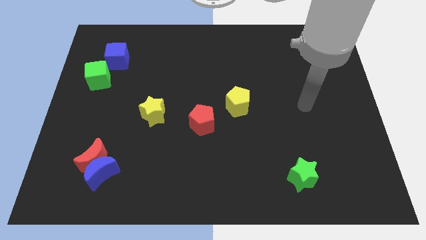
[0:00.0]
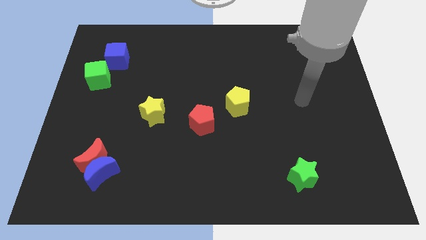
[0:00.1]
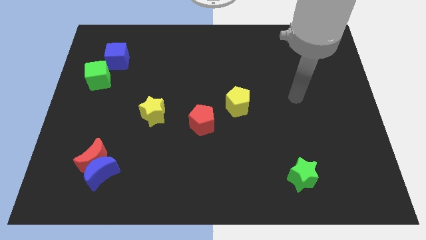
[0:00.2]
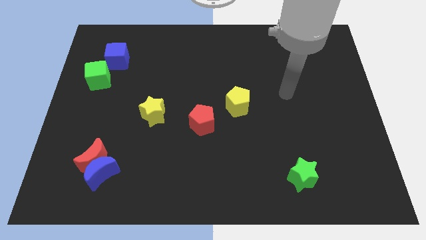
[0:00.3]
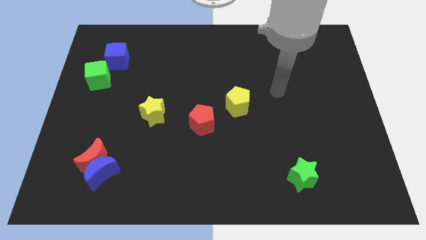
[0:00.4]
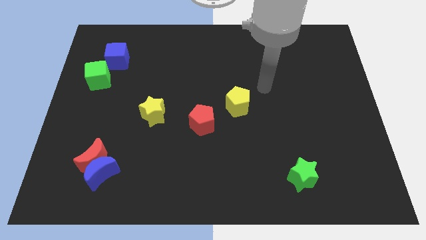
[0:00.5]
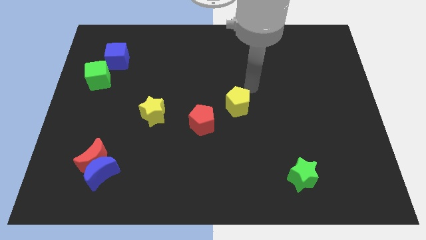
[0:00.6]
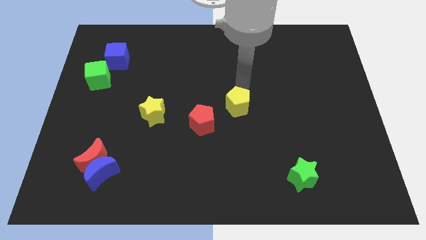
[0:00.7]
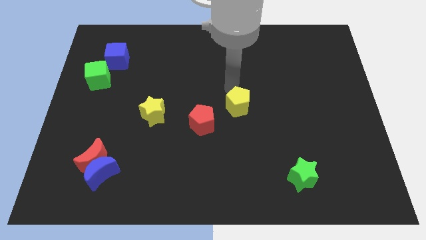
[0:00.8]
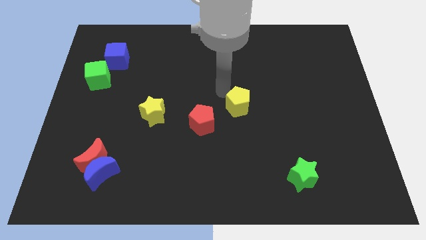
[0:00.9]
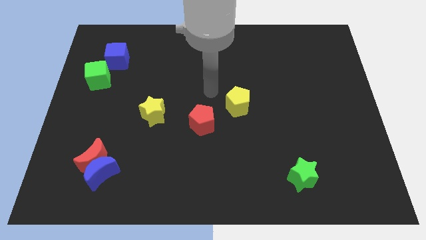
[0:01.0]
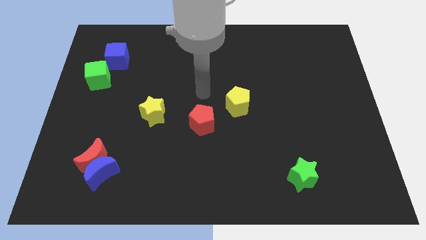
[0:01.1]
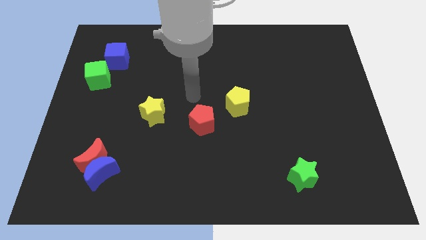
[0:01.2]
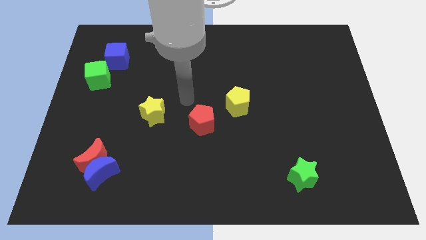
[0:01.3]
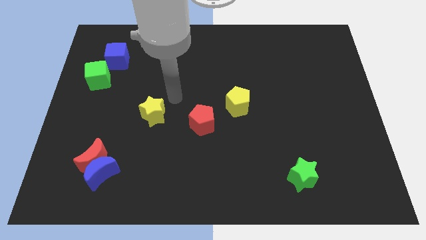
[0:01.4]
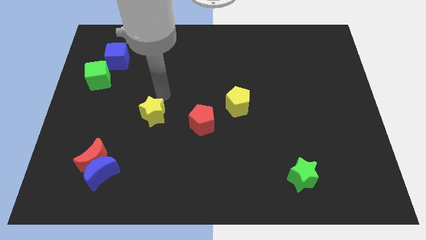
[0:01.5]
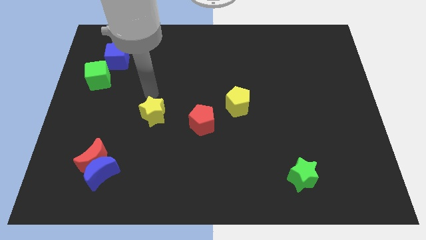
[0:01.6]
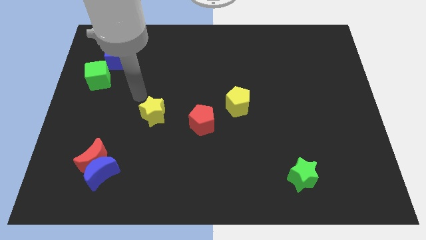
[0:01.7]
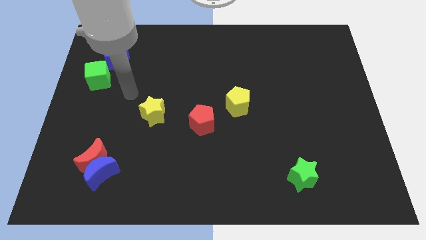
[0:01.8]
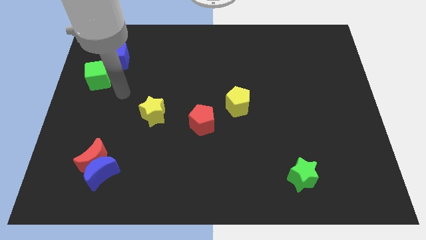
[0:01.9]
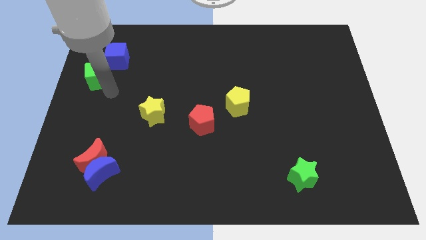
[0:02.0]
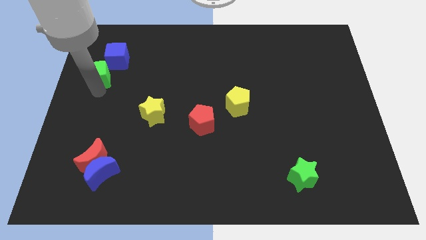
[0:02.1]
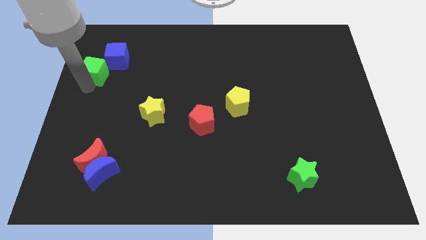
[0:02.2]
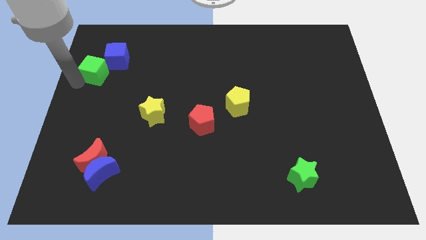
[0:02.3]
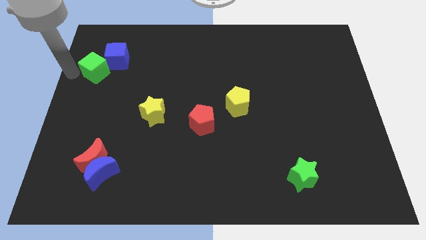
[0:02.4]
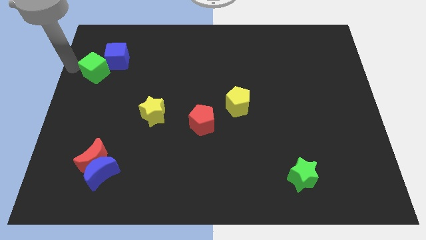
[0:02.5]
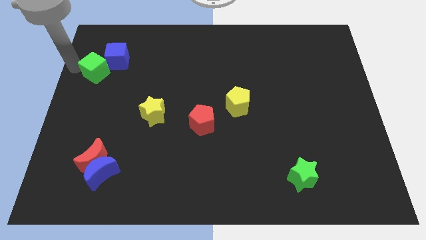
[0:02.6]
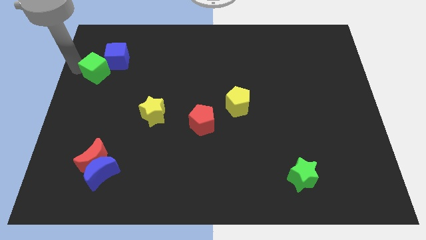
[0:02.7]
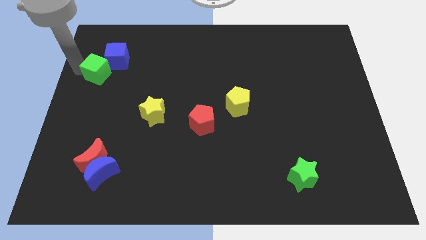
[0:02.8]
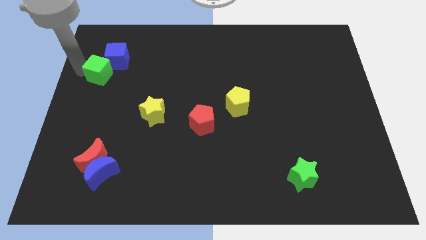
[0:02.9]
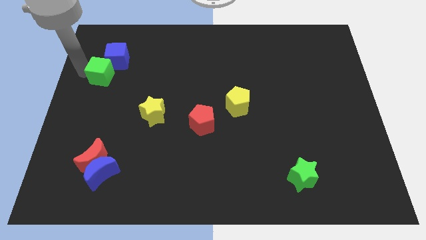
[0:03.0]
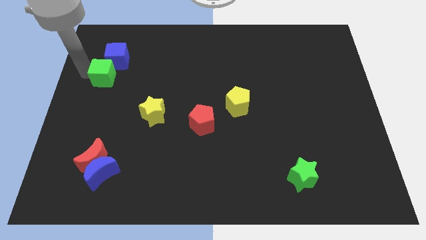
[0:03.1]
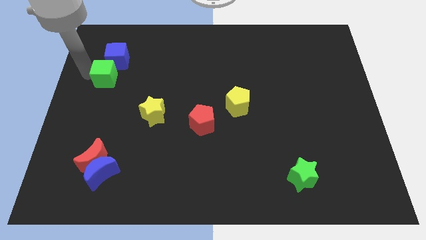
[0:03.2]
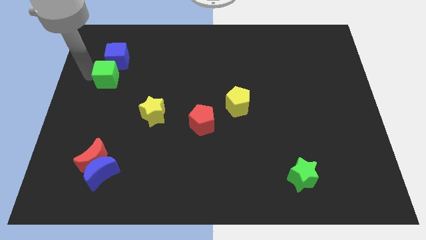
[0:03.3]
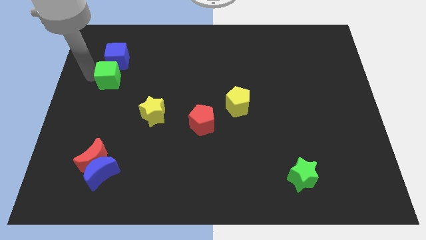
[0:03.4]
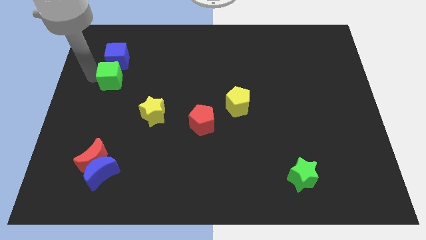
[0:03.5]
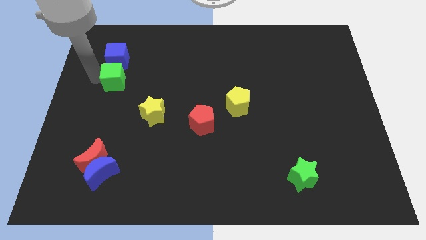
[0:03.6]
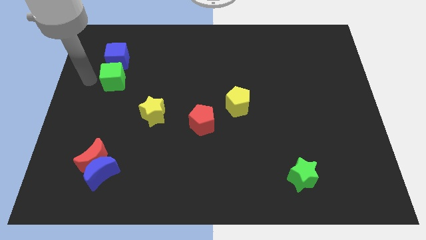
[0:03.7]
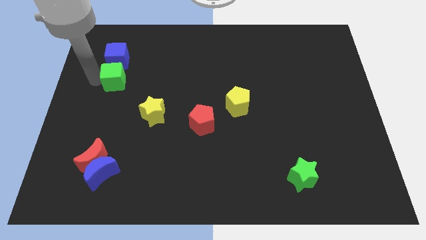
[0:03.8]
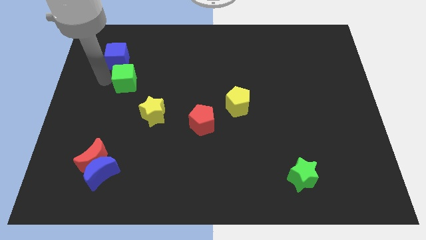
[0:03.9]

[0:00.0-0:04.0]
push the green cube to the right slightly

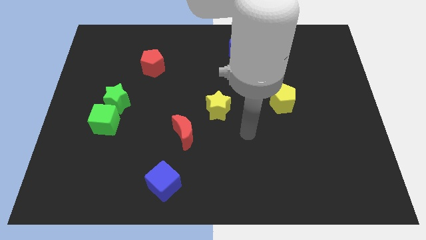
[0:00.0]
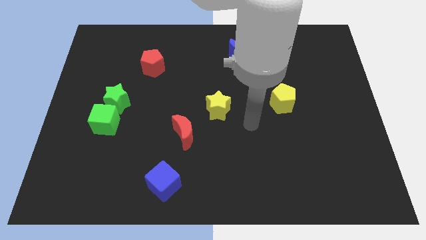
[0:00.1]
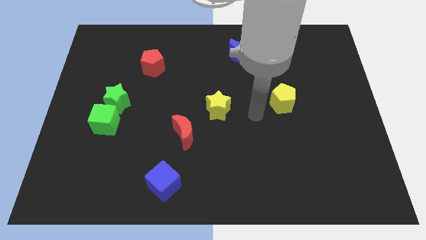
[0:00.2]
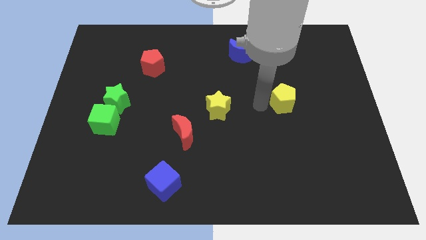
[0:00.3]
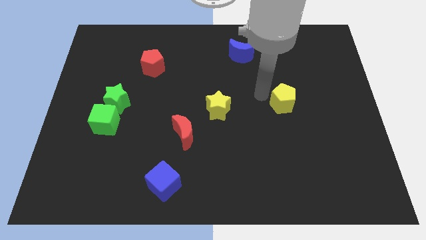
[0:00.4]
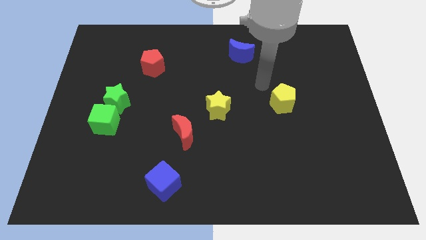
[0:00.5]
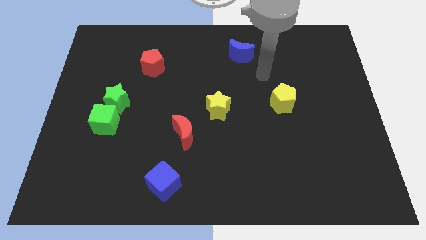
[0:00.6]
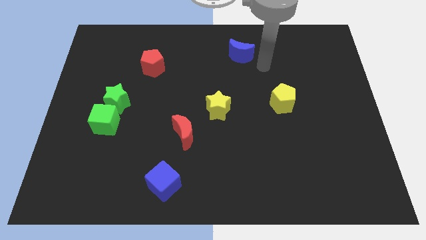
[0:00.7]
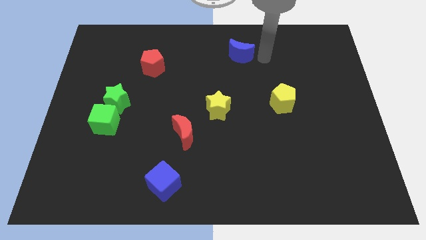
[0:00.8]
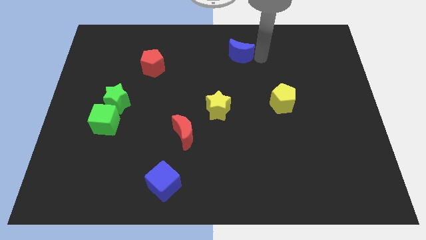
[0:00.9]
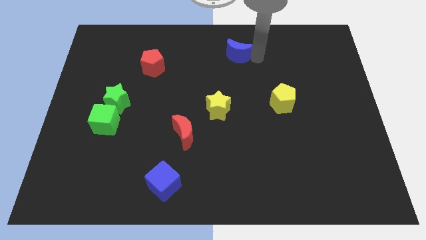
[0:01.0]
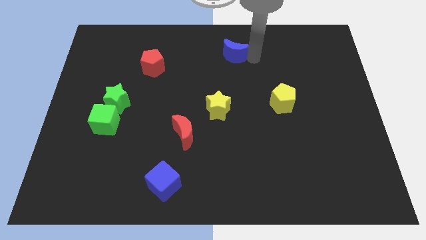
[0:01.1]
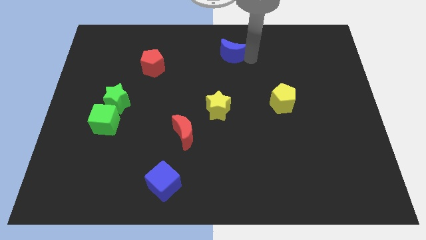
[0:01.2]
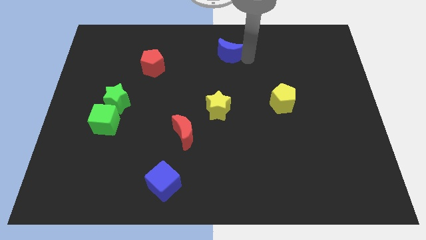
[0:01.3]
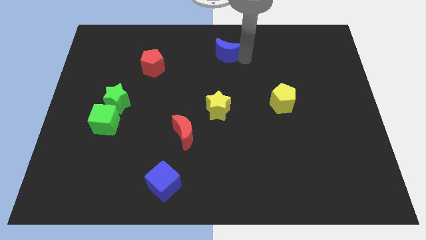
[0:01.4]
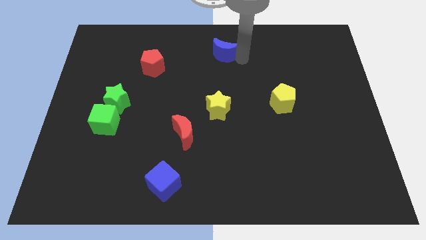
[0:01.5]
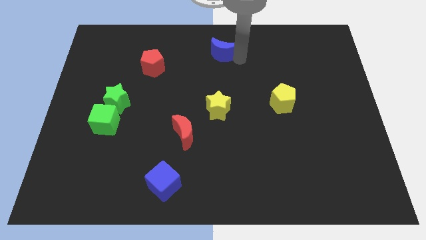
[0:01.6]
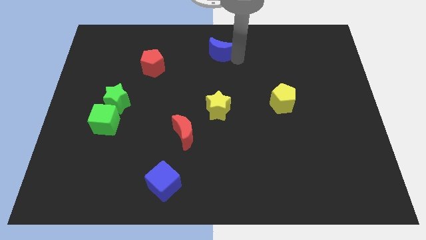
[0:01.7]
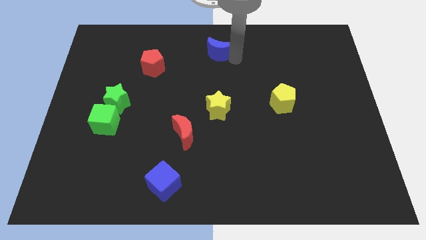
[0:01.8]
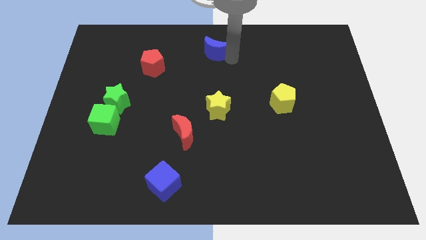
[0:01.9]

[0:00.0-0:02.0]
slightly move the blue moon left

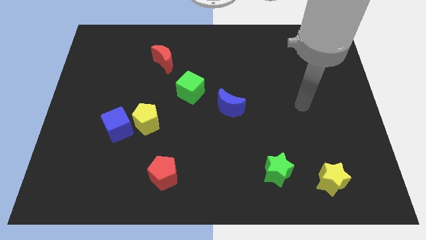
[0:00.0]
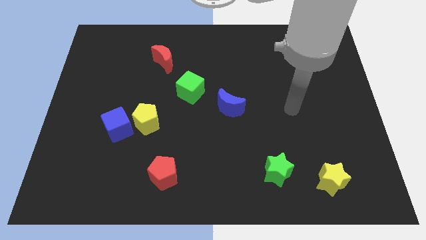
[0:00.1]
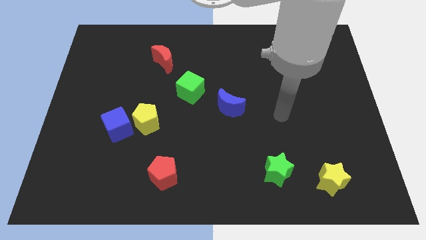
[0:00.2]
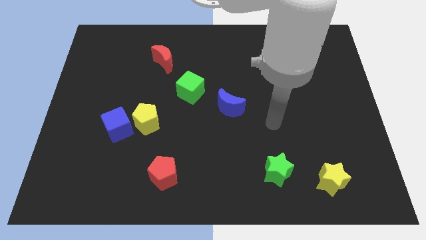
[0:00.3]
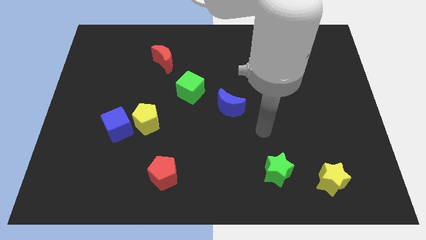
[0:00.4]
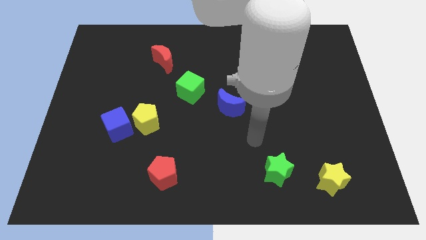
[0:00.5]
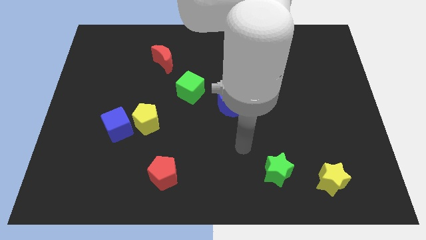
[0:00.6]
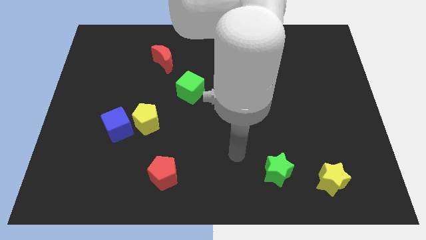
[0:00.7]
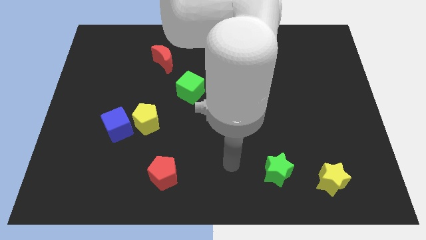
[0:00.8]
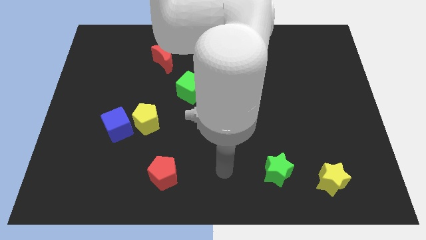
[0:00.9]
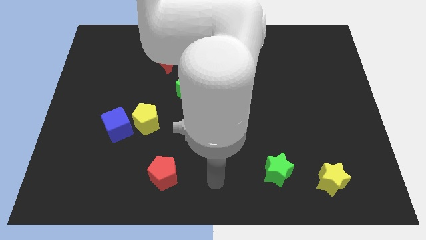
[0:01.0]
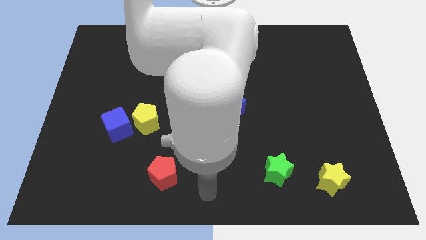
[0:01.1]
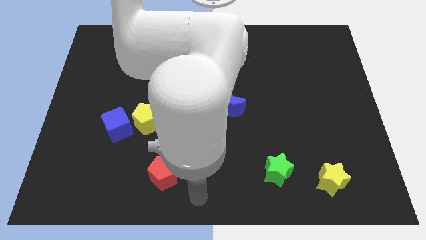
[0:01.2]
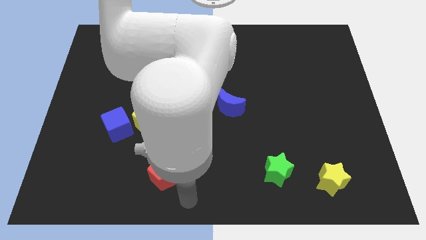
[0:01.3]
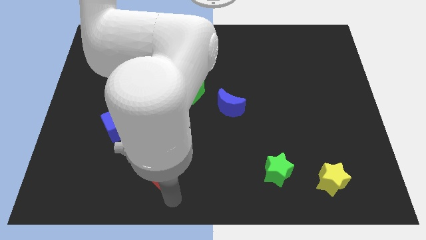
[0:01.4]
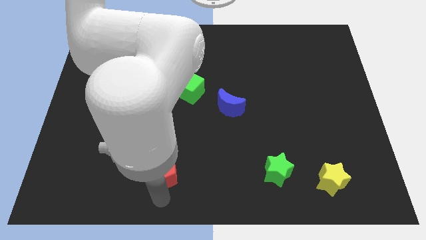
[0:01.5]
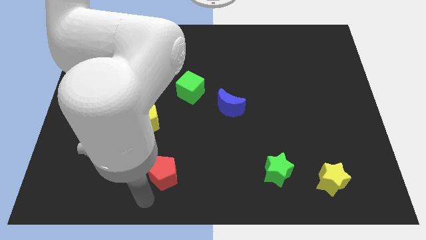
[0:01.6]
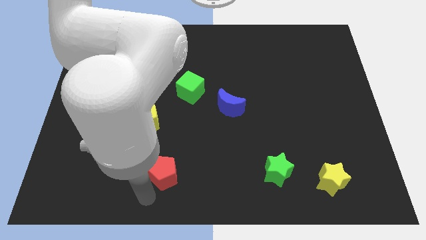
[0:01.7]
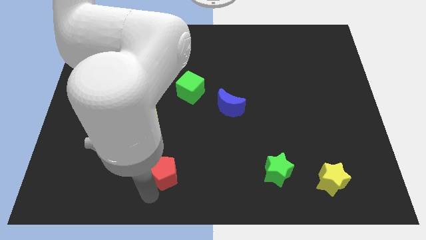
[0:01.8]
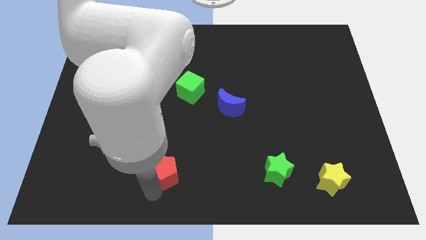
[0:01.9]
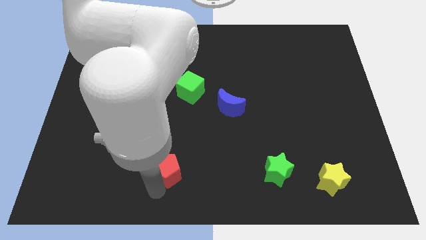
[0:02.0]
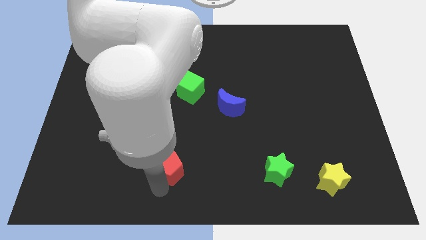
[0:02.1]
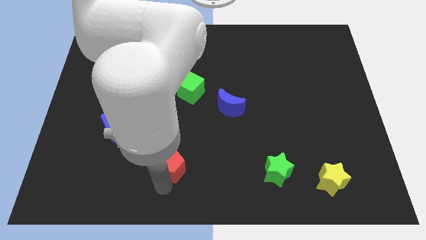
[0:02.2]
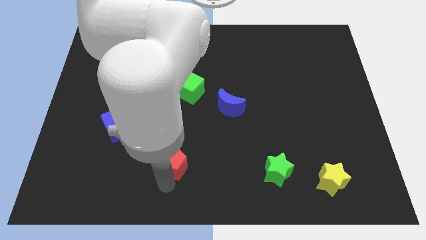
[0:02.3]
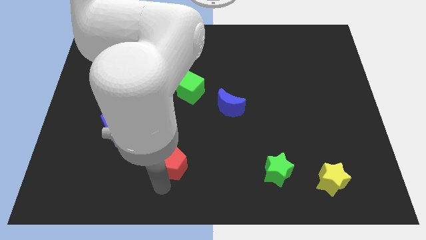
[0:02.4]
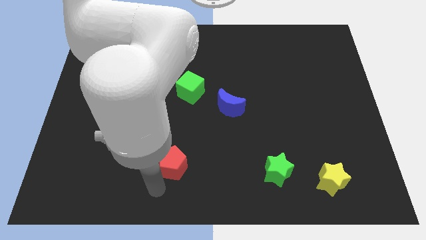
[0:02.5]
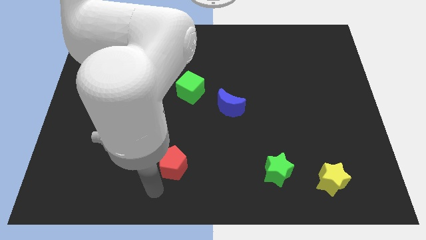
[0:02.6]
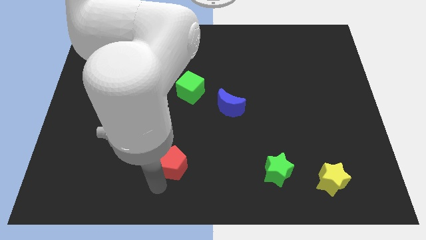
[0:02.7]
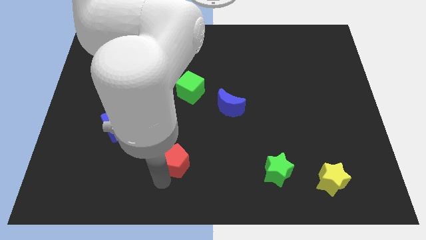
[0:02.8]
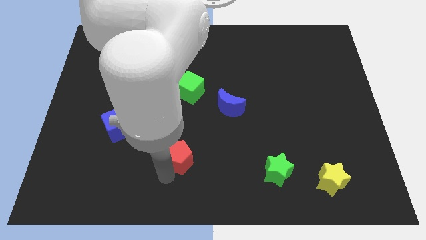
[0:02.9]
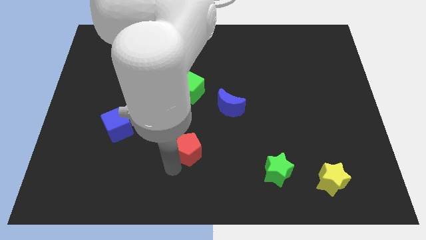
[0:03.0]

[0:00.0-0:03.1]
move the red pentagon up and right diagonally slightly
